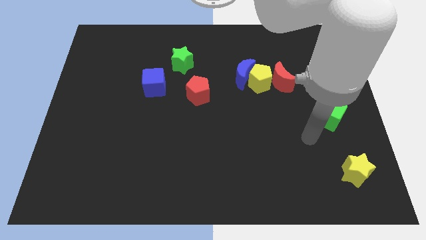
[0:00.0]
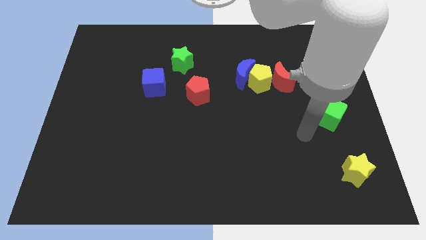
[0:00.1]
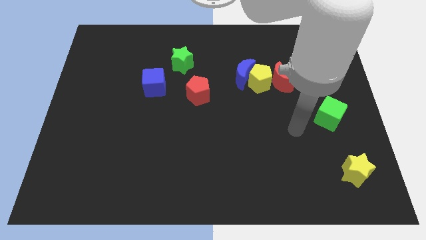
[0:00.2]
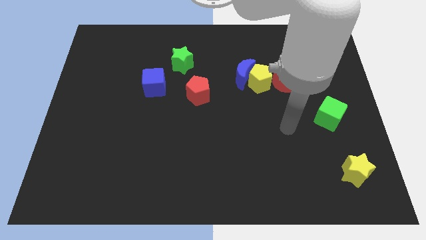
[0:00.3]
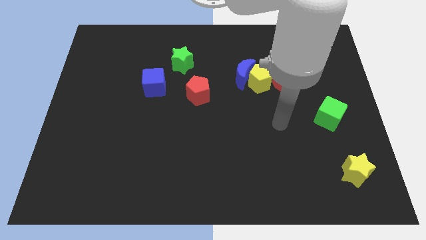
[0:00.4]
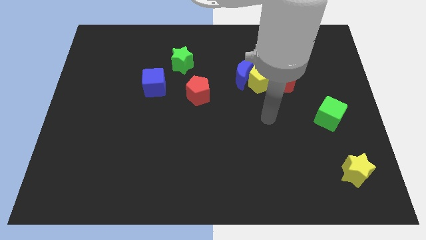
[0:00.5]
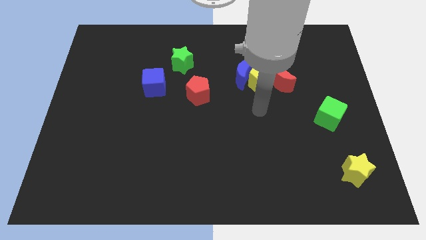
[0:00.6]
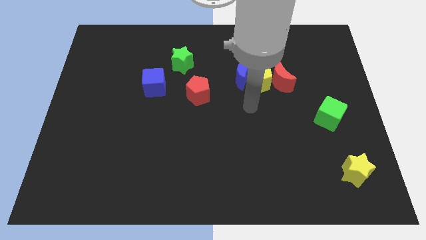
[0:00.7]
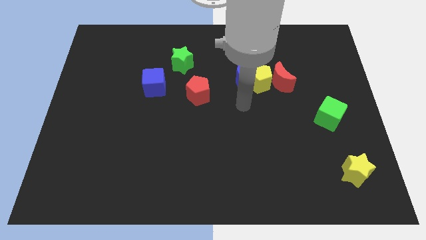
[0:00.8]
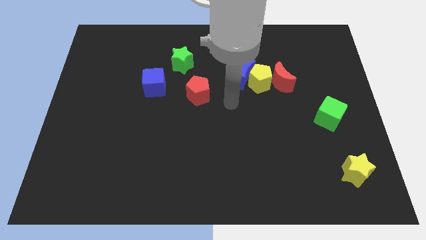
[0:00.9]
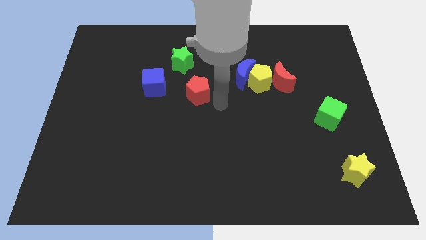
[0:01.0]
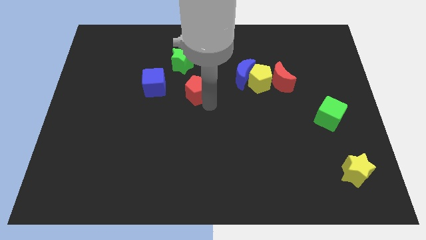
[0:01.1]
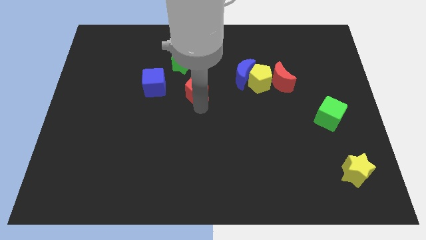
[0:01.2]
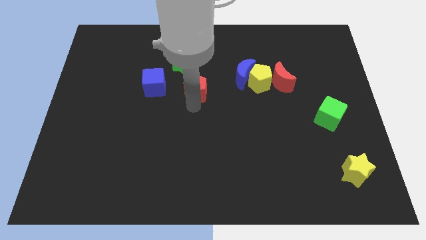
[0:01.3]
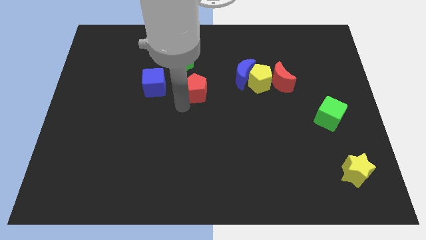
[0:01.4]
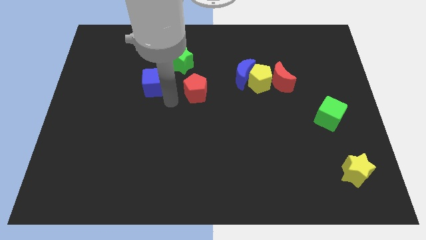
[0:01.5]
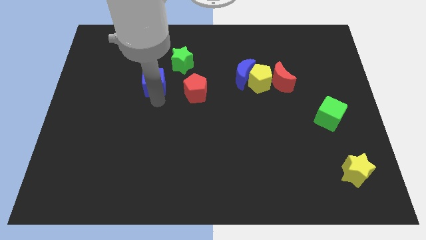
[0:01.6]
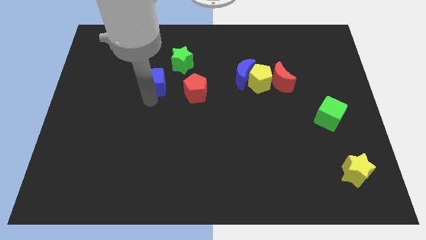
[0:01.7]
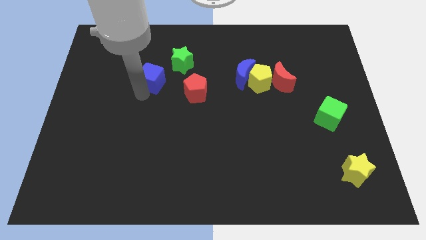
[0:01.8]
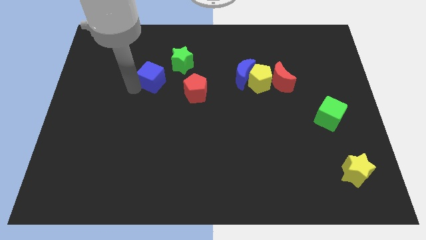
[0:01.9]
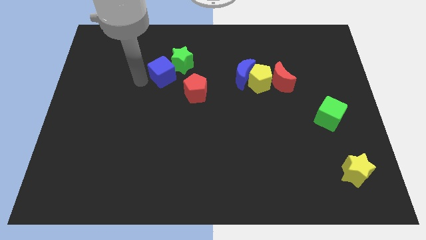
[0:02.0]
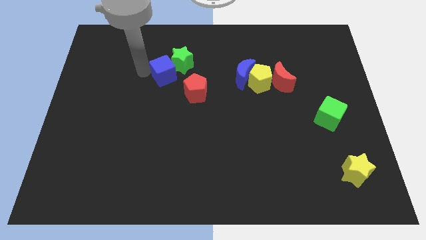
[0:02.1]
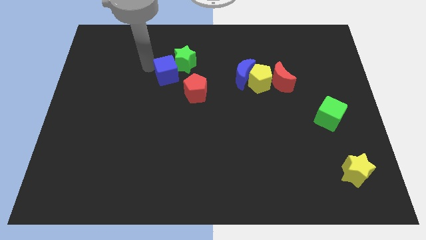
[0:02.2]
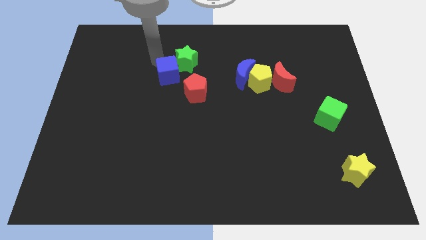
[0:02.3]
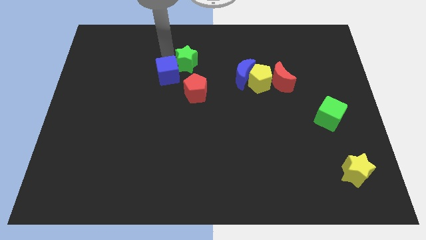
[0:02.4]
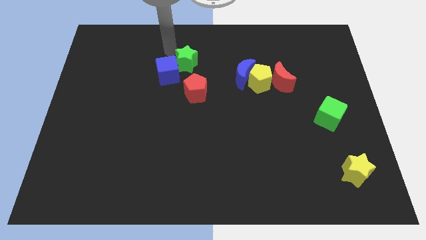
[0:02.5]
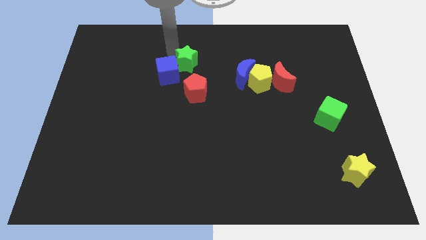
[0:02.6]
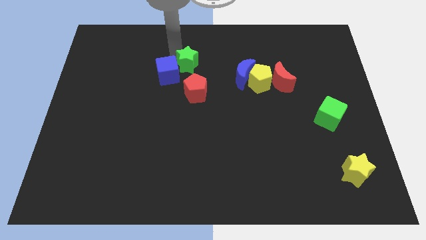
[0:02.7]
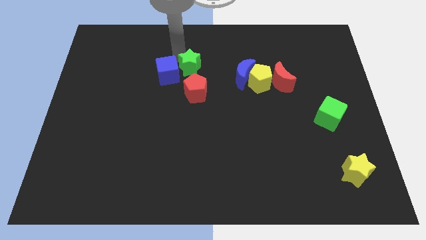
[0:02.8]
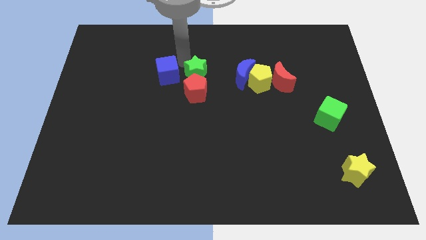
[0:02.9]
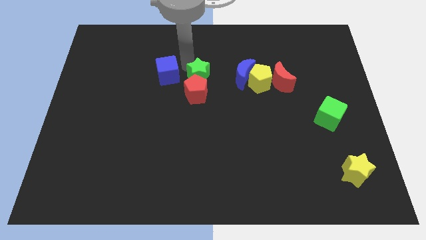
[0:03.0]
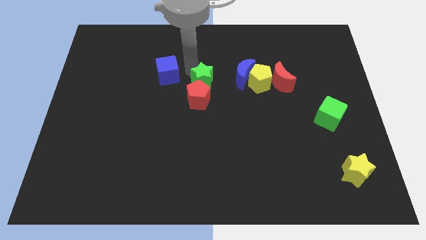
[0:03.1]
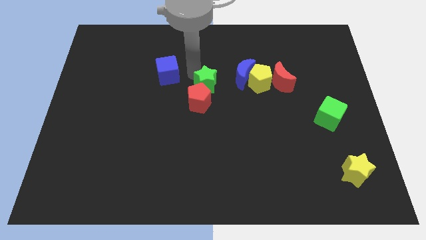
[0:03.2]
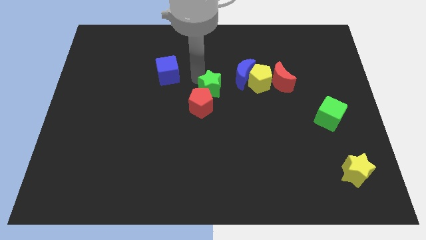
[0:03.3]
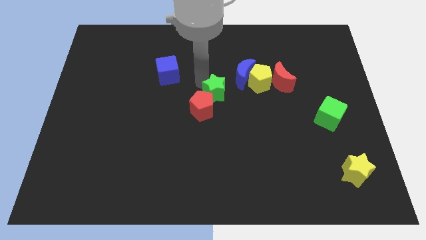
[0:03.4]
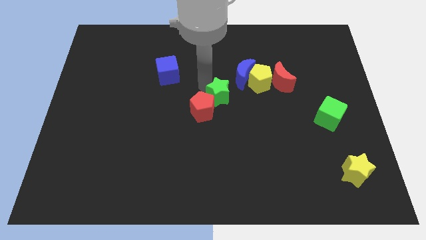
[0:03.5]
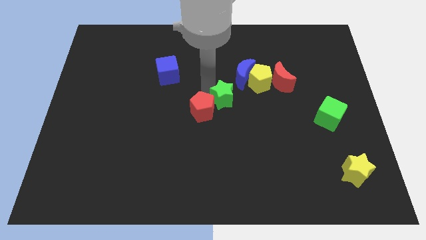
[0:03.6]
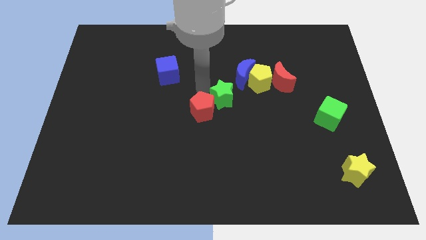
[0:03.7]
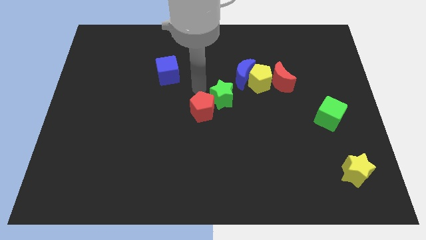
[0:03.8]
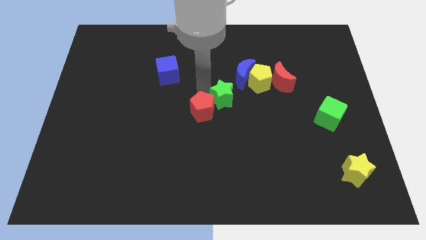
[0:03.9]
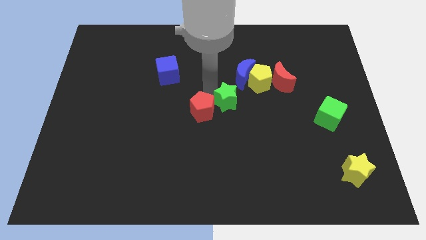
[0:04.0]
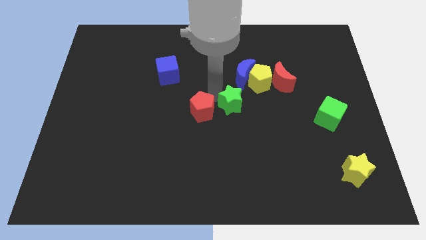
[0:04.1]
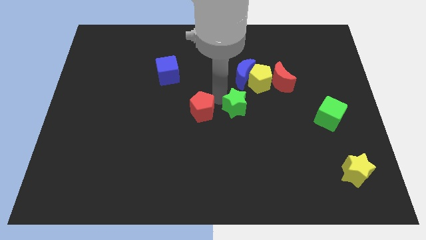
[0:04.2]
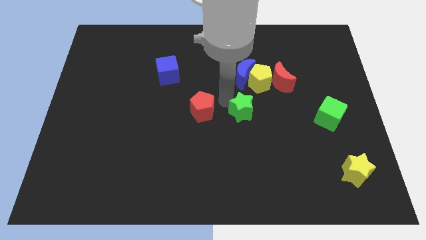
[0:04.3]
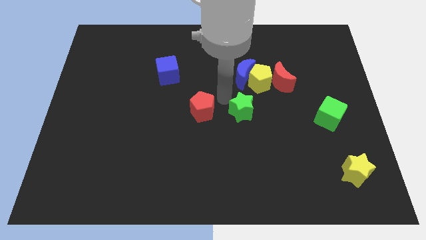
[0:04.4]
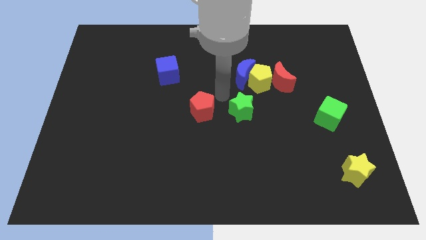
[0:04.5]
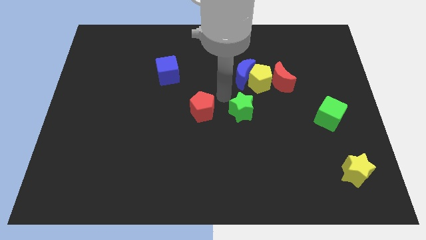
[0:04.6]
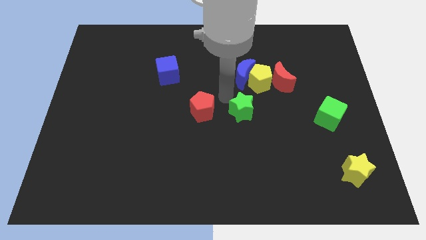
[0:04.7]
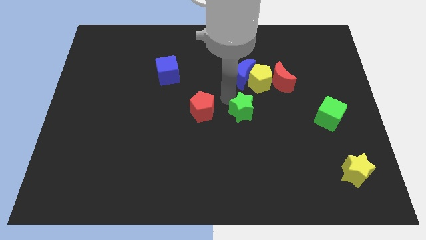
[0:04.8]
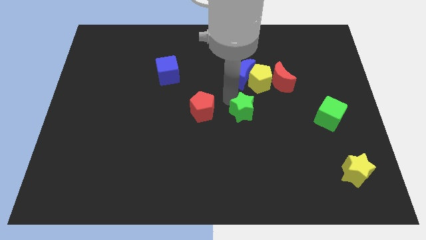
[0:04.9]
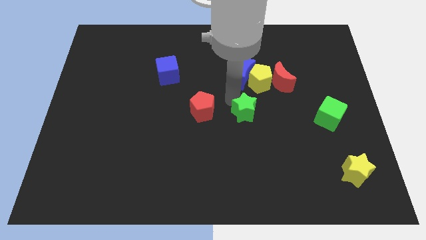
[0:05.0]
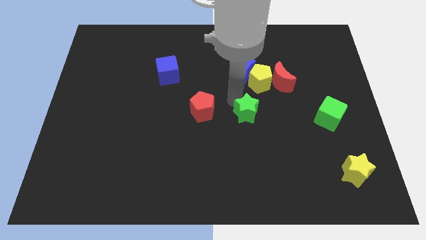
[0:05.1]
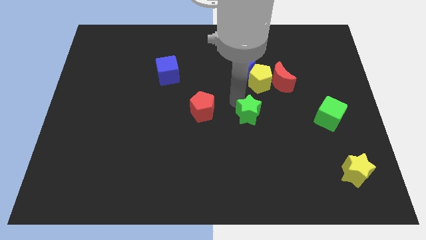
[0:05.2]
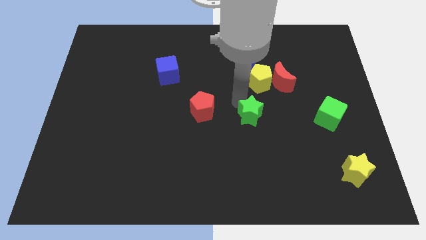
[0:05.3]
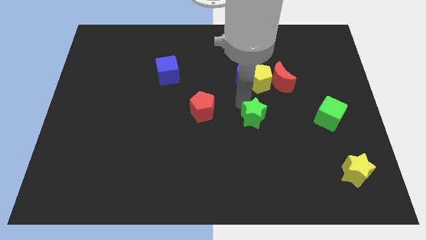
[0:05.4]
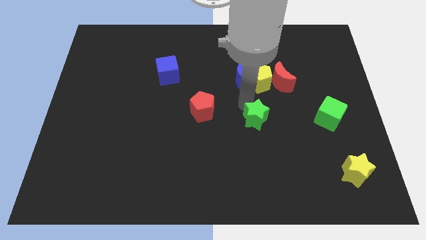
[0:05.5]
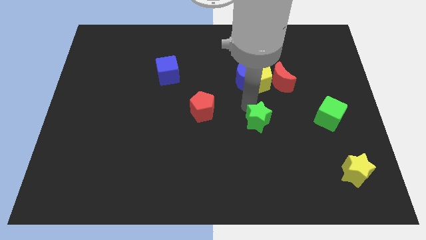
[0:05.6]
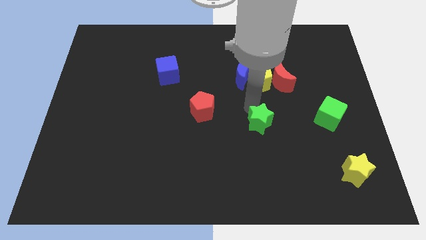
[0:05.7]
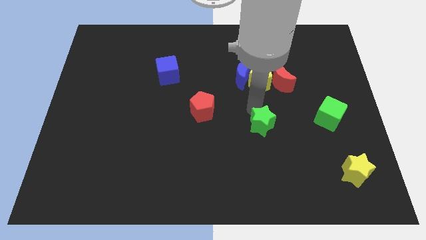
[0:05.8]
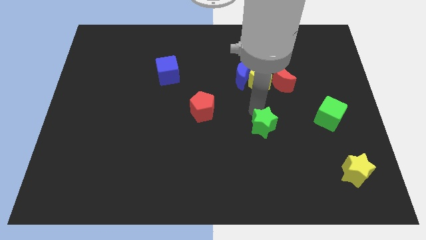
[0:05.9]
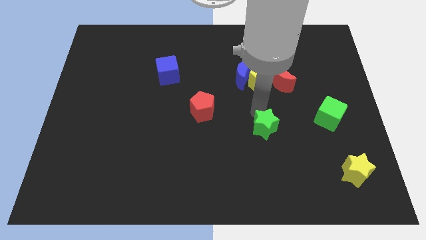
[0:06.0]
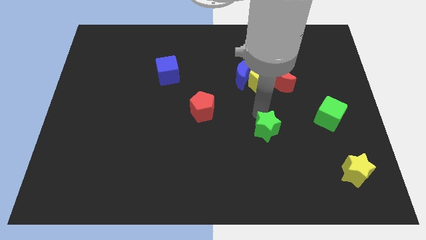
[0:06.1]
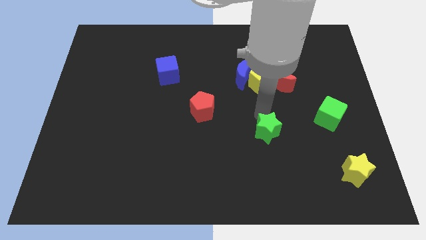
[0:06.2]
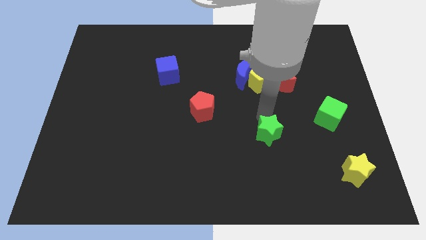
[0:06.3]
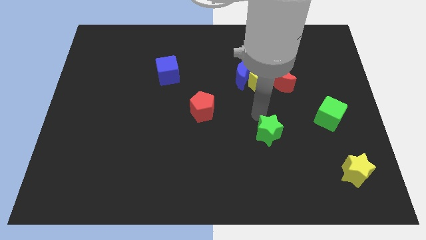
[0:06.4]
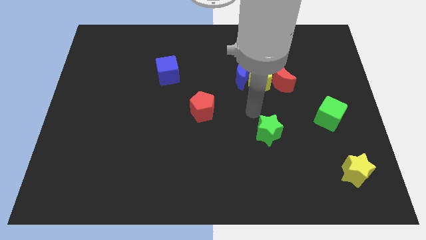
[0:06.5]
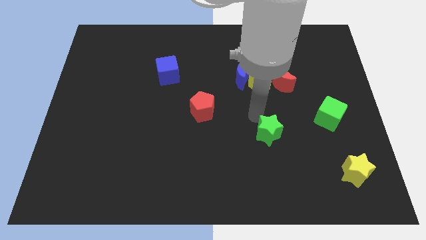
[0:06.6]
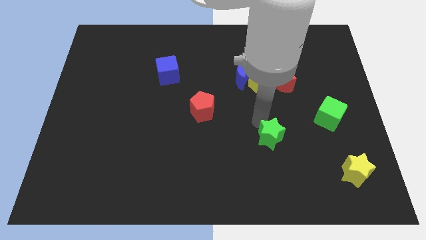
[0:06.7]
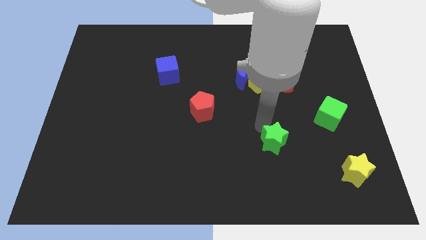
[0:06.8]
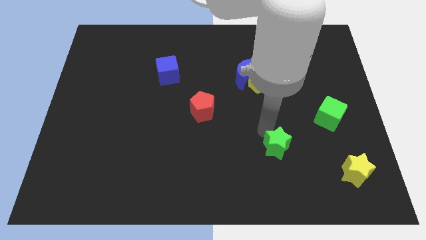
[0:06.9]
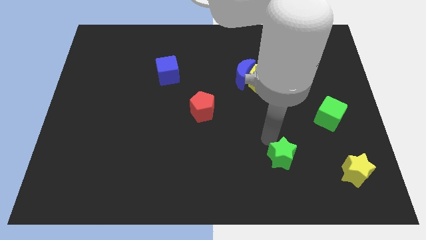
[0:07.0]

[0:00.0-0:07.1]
put the green star just left of the yellow star
